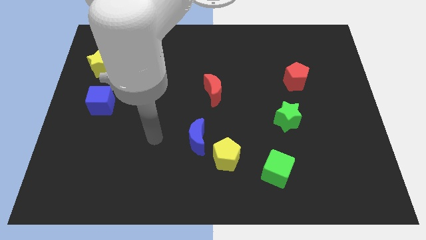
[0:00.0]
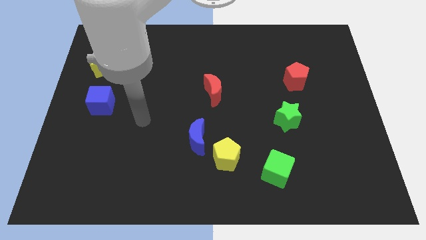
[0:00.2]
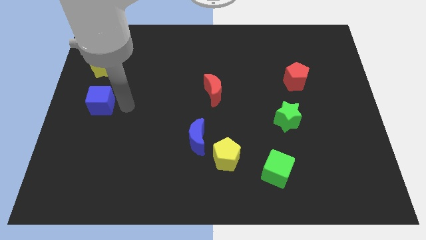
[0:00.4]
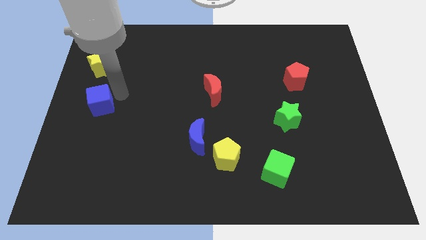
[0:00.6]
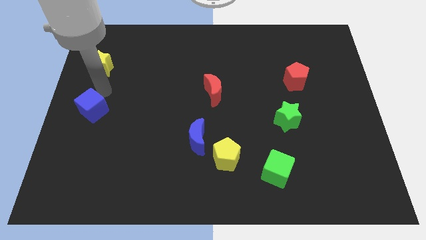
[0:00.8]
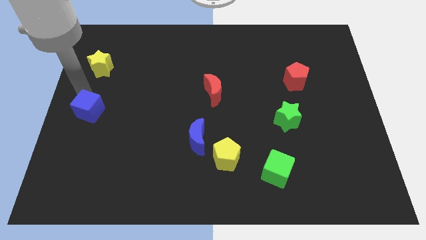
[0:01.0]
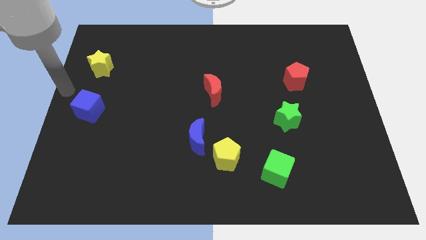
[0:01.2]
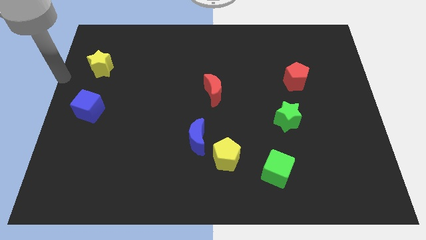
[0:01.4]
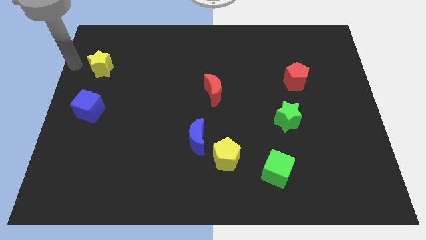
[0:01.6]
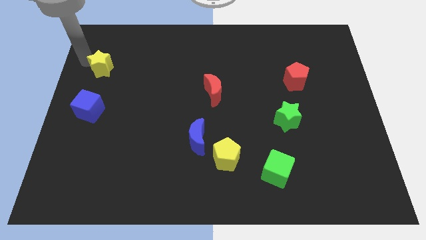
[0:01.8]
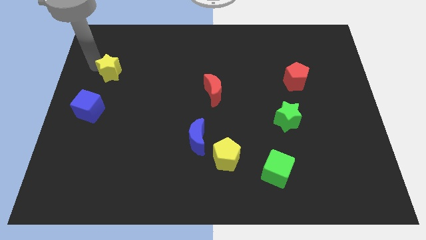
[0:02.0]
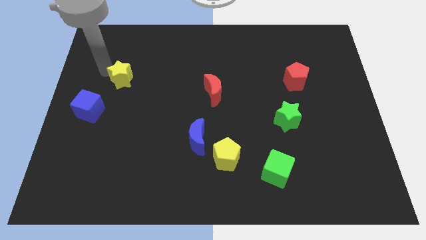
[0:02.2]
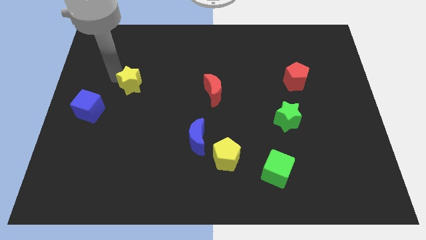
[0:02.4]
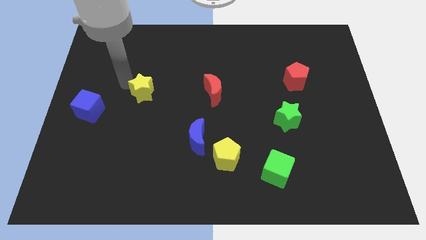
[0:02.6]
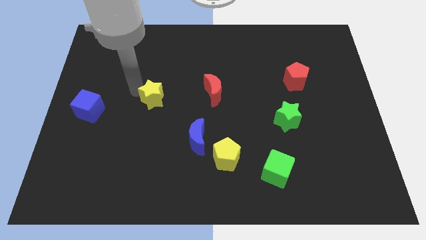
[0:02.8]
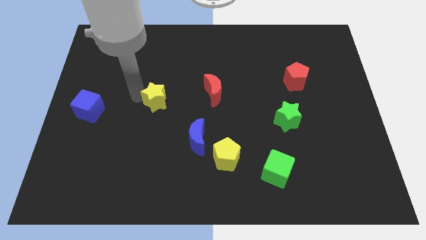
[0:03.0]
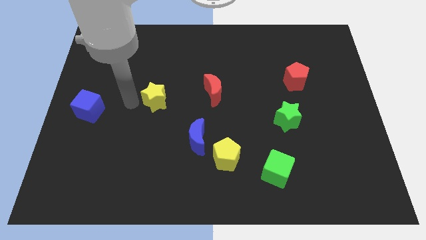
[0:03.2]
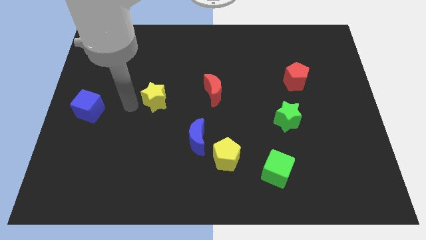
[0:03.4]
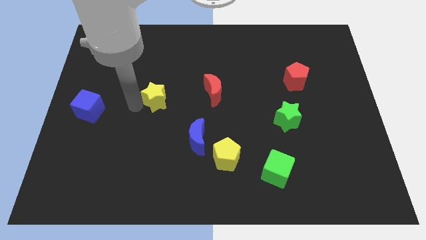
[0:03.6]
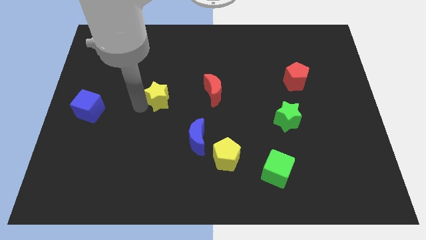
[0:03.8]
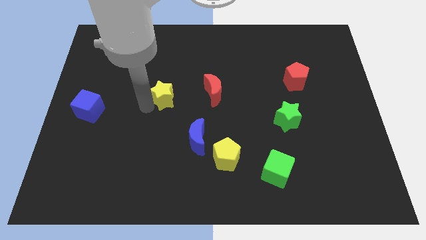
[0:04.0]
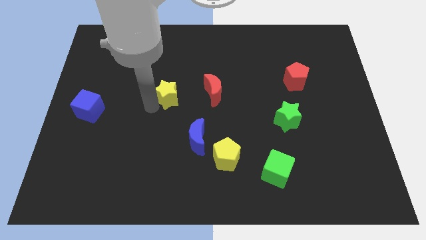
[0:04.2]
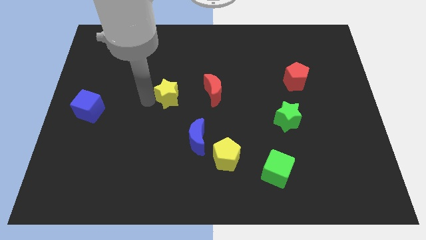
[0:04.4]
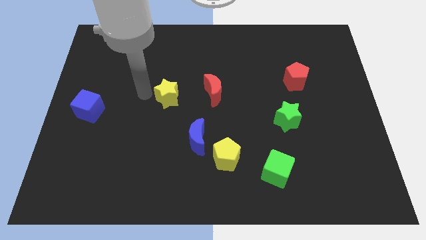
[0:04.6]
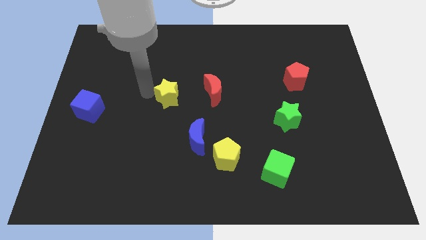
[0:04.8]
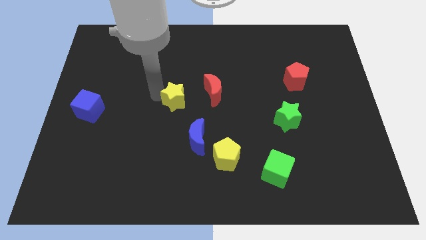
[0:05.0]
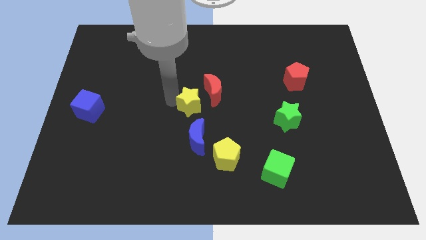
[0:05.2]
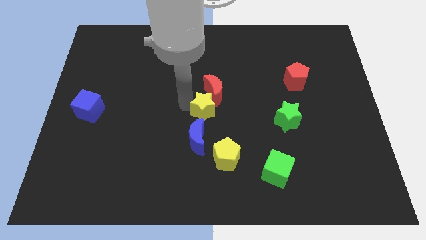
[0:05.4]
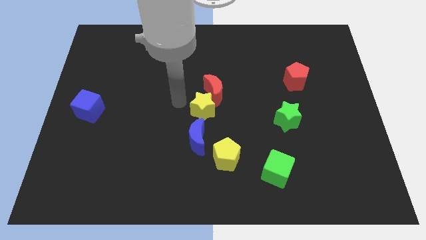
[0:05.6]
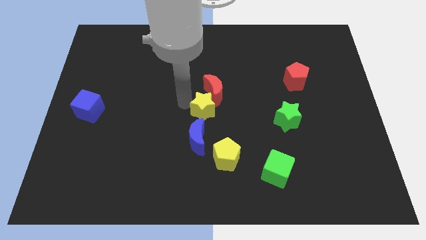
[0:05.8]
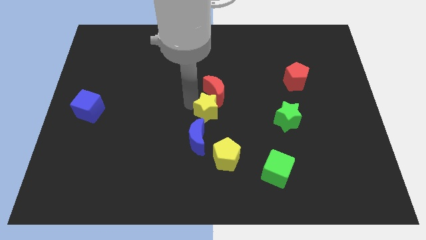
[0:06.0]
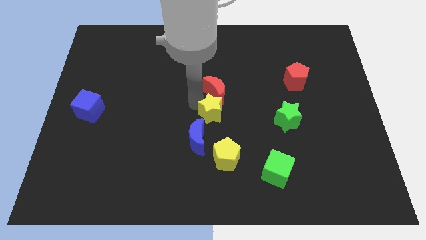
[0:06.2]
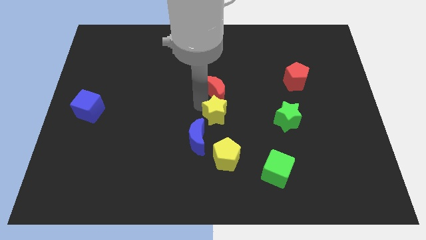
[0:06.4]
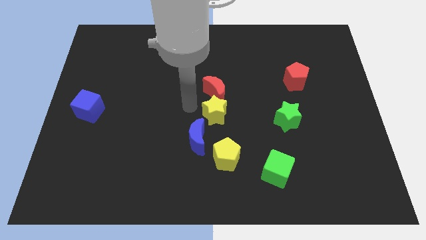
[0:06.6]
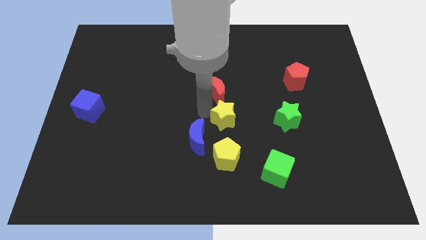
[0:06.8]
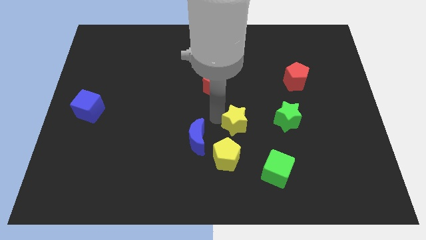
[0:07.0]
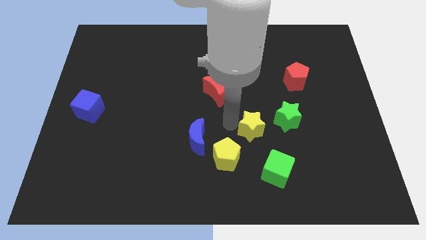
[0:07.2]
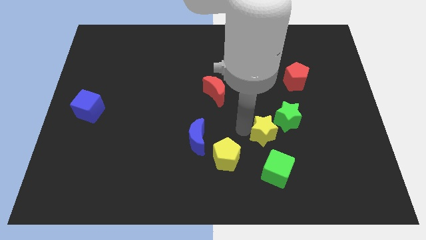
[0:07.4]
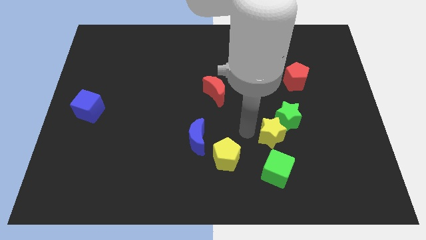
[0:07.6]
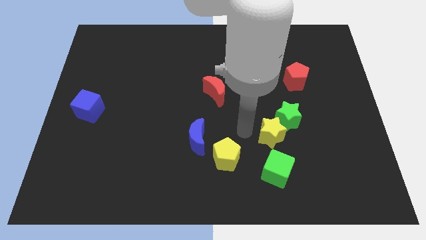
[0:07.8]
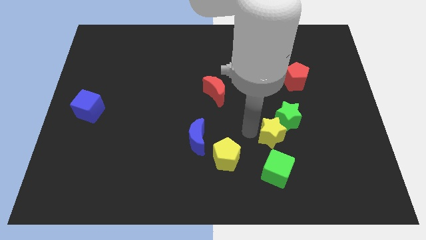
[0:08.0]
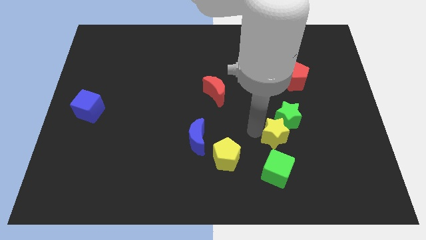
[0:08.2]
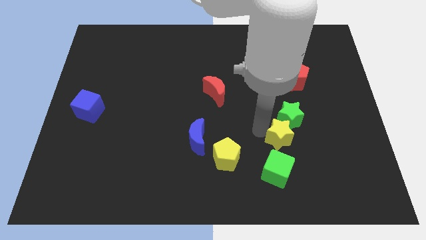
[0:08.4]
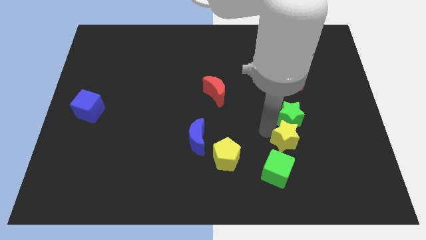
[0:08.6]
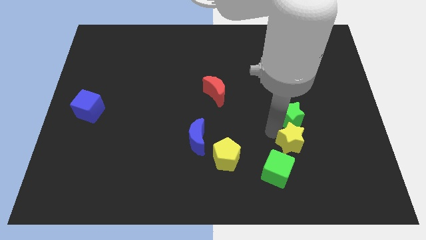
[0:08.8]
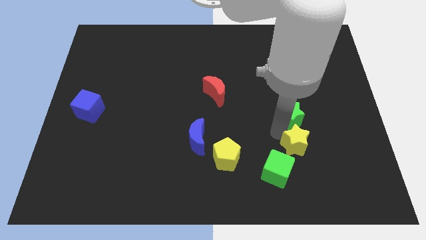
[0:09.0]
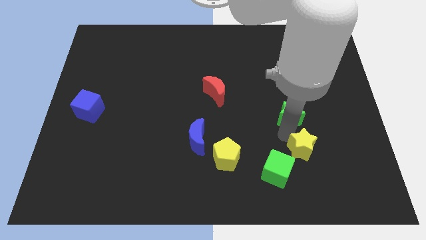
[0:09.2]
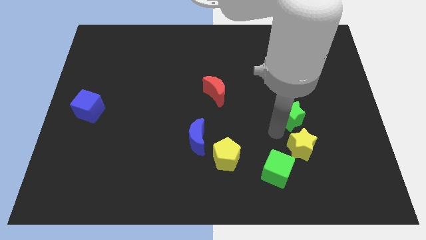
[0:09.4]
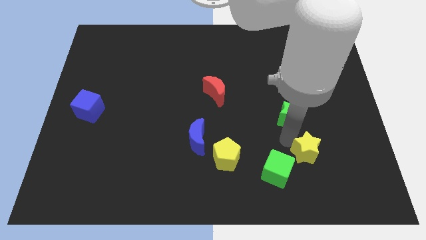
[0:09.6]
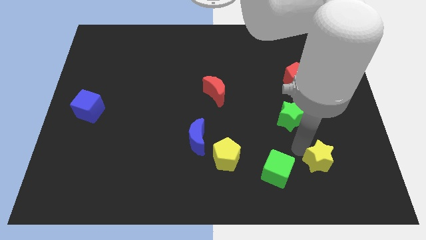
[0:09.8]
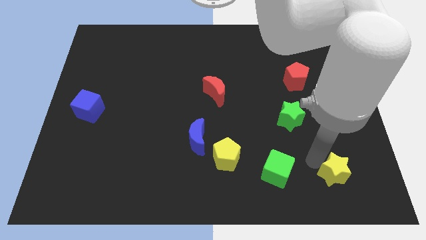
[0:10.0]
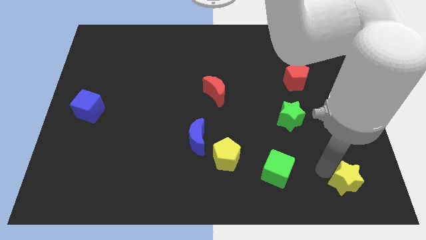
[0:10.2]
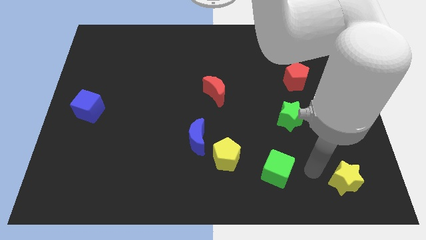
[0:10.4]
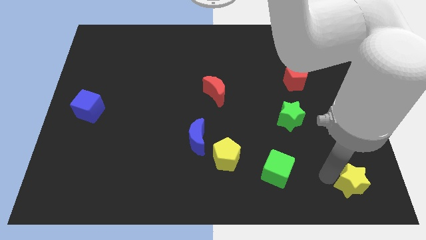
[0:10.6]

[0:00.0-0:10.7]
slide the yellow star to the bottom right
